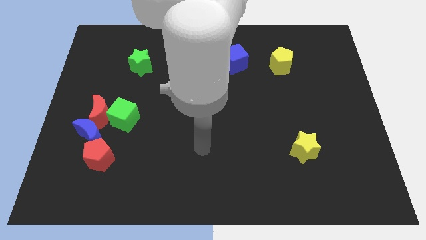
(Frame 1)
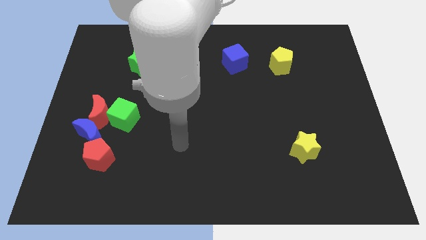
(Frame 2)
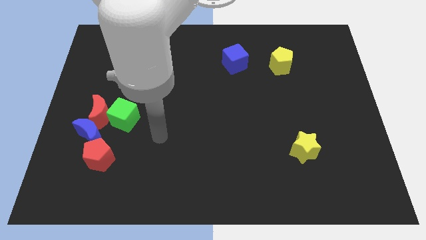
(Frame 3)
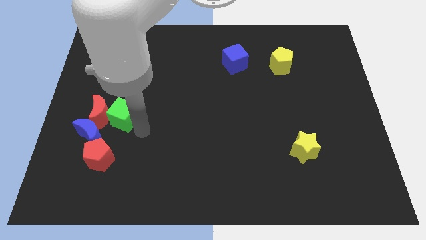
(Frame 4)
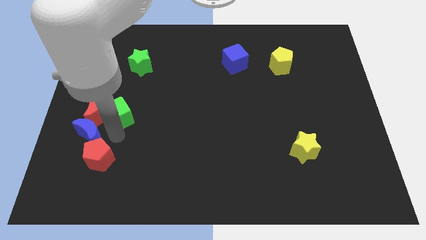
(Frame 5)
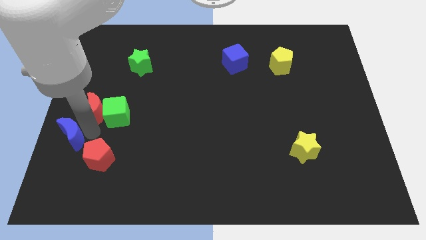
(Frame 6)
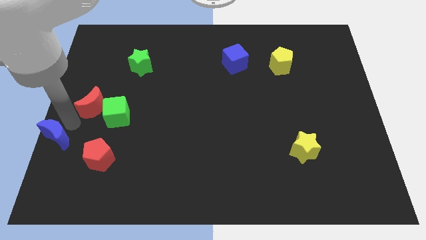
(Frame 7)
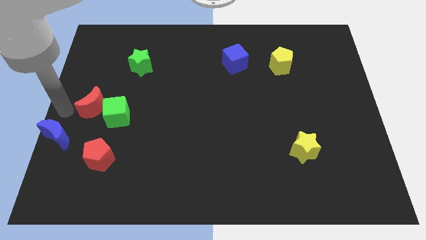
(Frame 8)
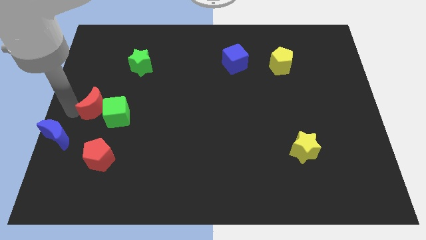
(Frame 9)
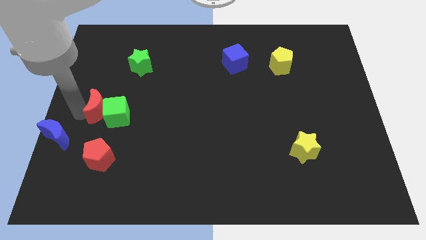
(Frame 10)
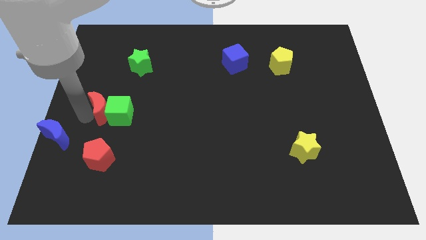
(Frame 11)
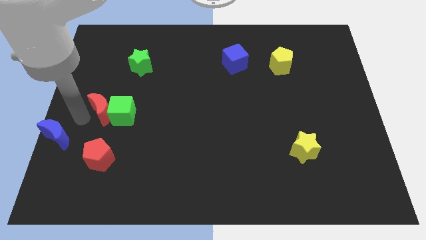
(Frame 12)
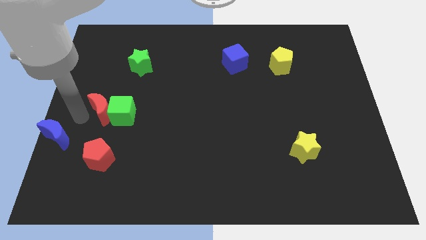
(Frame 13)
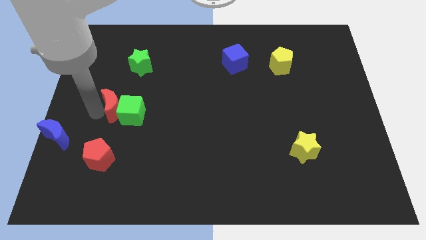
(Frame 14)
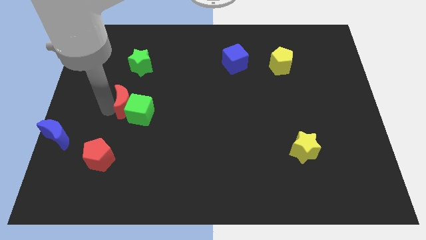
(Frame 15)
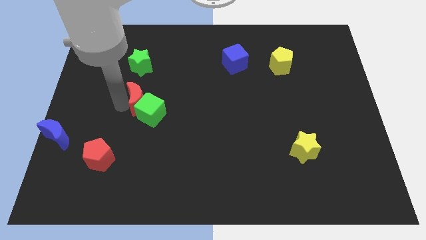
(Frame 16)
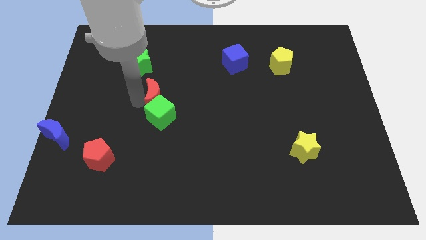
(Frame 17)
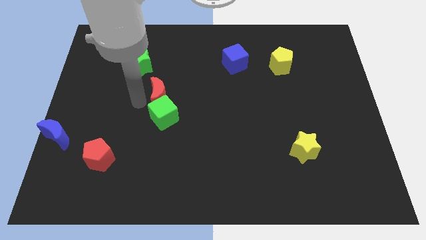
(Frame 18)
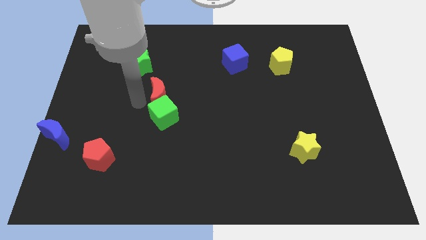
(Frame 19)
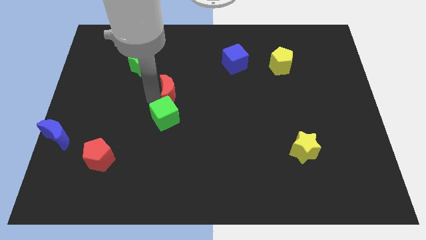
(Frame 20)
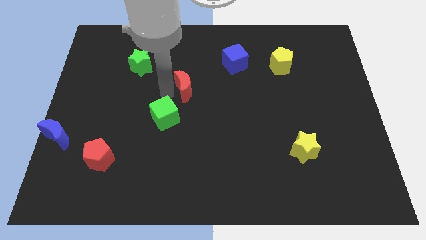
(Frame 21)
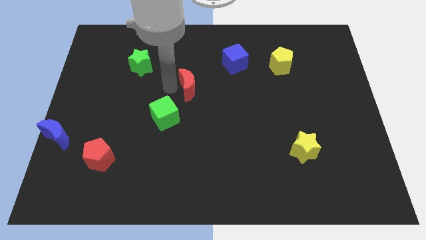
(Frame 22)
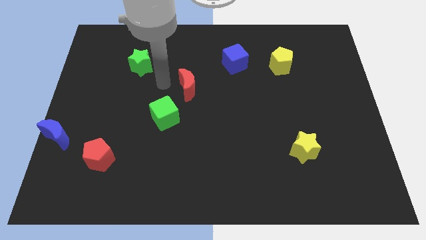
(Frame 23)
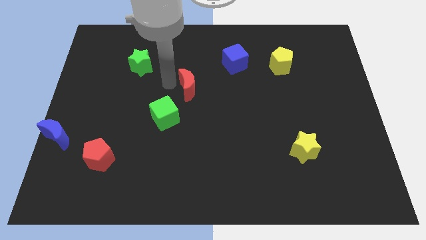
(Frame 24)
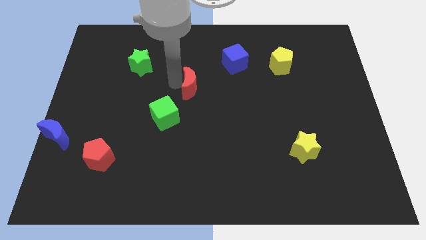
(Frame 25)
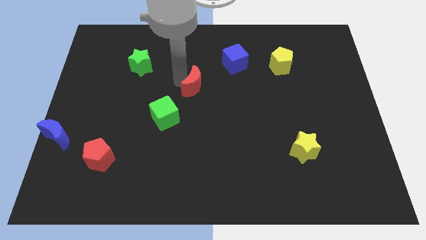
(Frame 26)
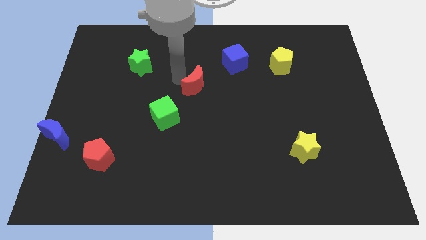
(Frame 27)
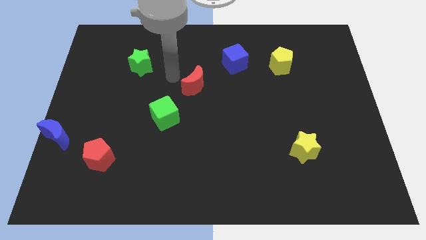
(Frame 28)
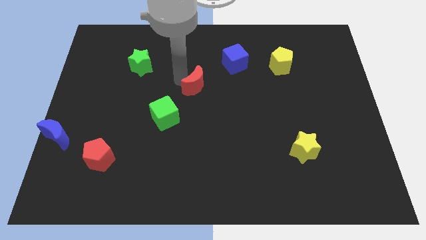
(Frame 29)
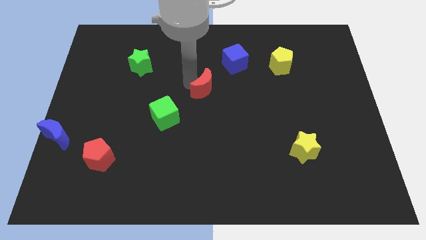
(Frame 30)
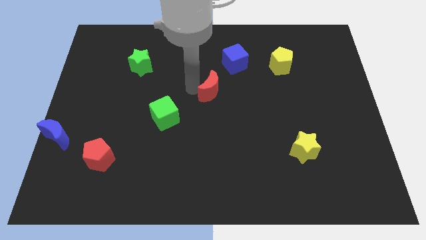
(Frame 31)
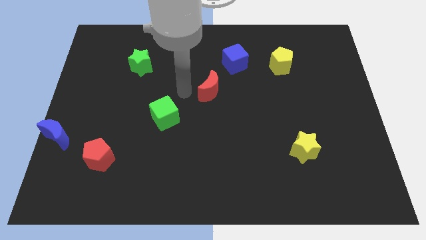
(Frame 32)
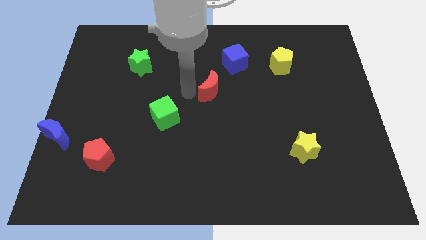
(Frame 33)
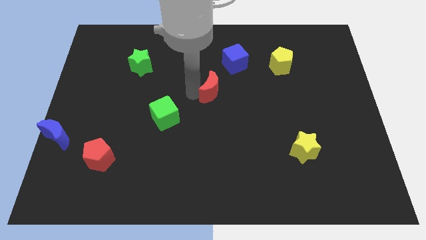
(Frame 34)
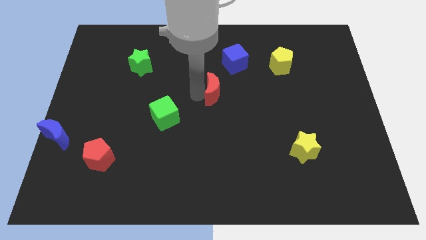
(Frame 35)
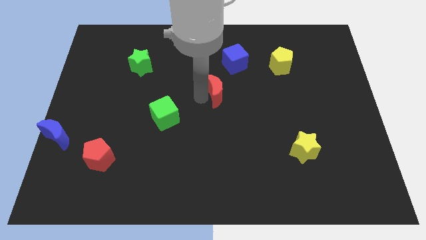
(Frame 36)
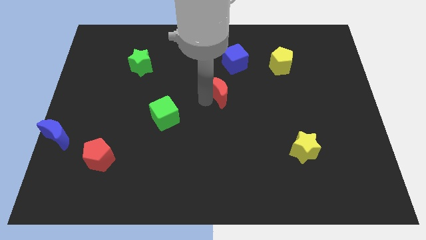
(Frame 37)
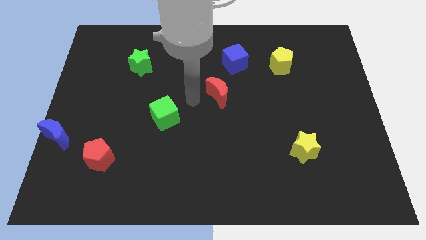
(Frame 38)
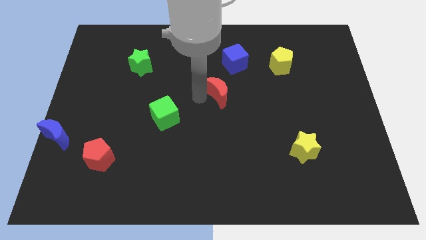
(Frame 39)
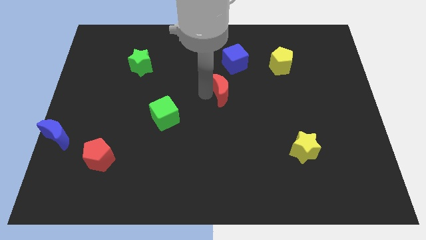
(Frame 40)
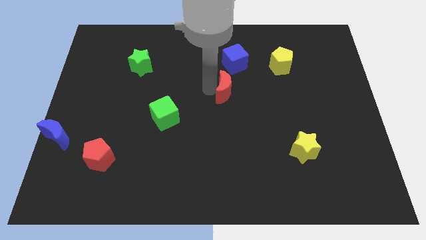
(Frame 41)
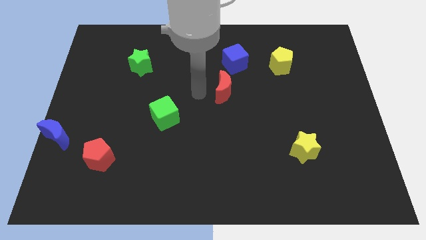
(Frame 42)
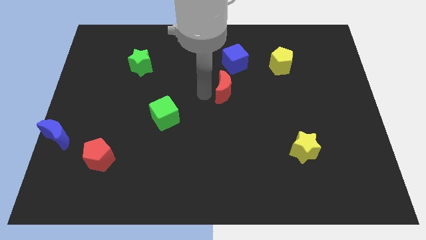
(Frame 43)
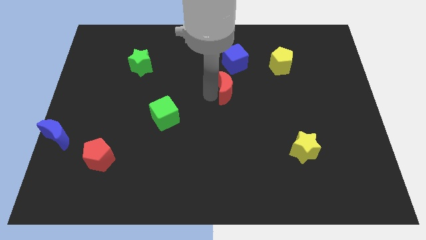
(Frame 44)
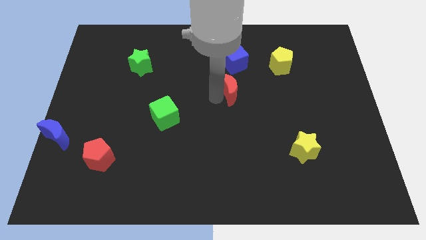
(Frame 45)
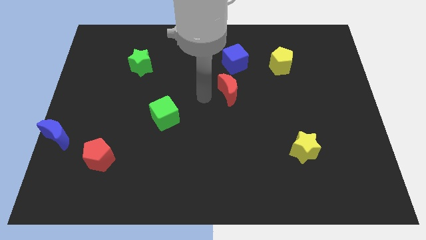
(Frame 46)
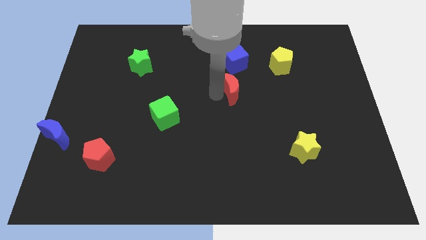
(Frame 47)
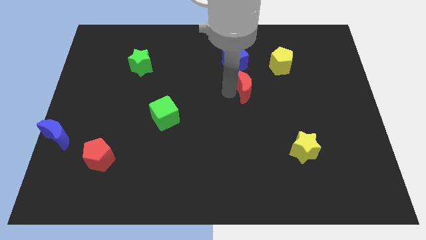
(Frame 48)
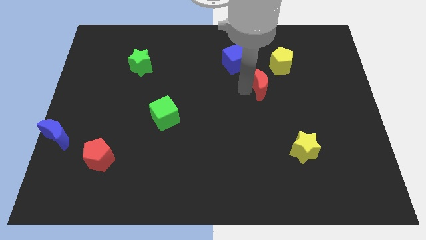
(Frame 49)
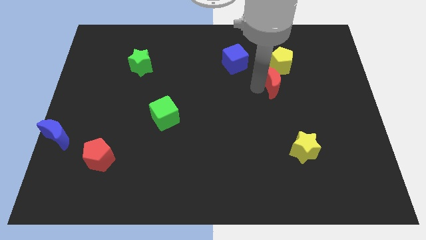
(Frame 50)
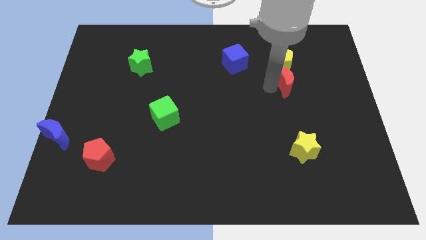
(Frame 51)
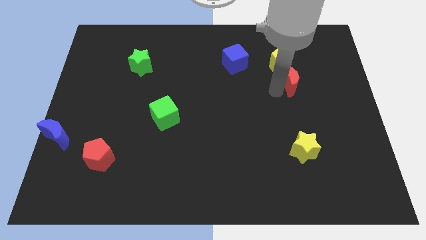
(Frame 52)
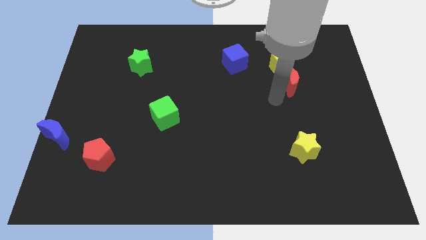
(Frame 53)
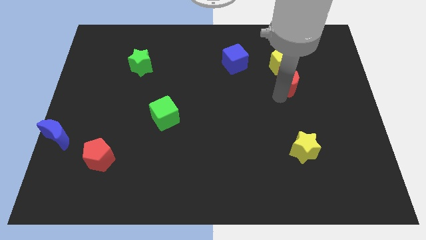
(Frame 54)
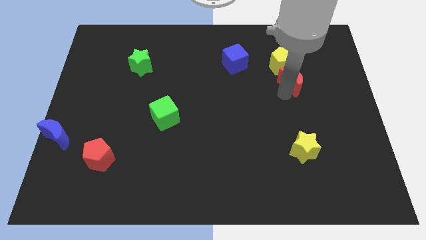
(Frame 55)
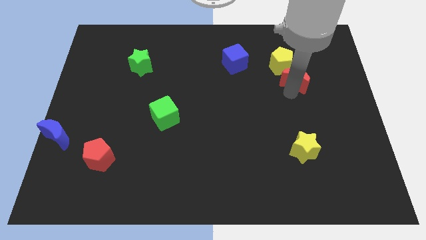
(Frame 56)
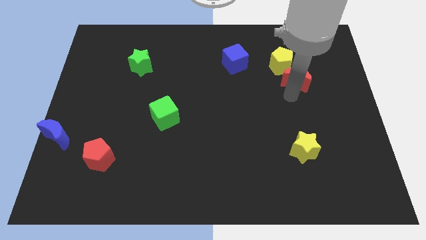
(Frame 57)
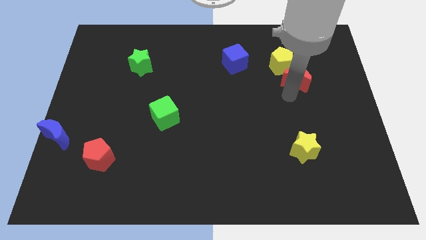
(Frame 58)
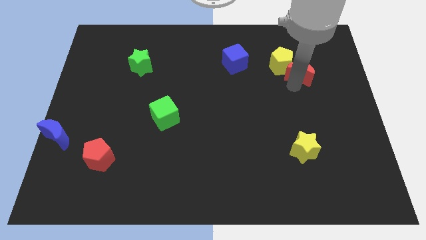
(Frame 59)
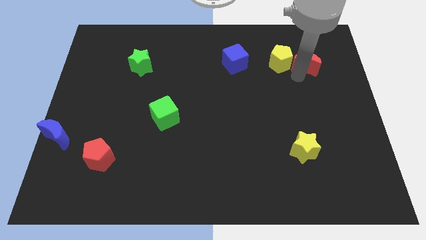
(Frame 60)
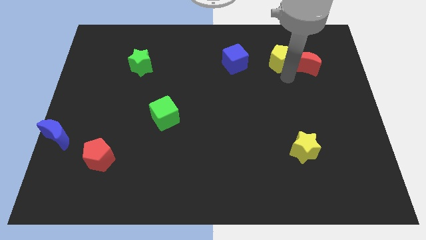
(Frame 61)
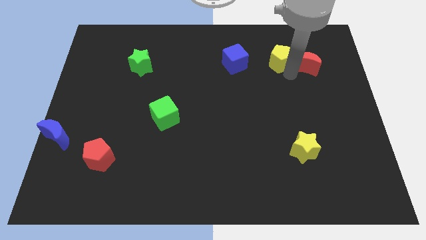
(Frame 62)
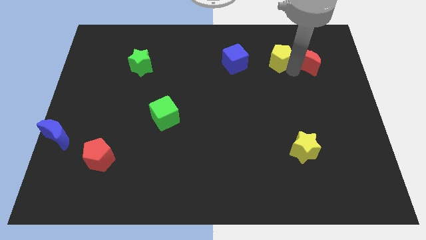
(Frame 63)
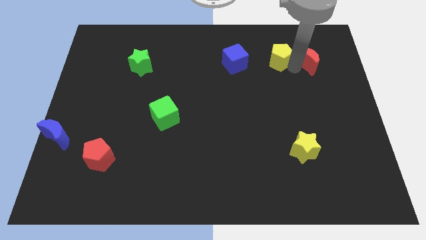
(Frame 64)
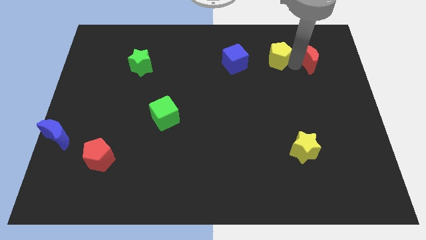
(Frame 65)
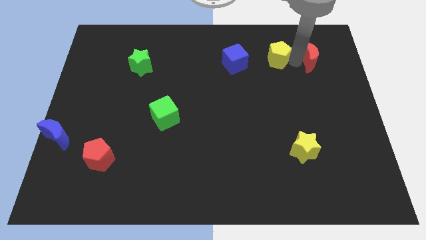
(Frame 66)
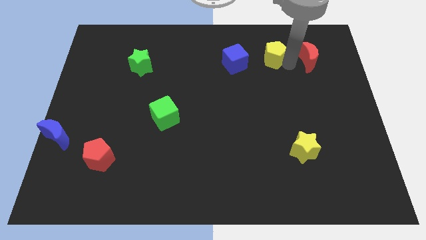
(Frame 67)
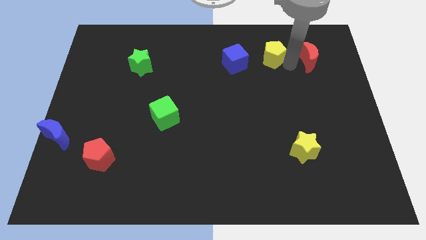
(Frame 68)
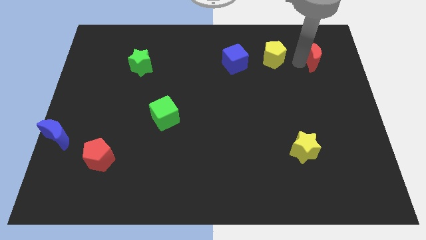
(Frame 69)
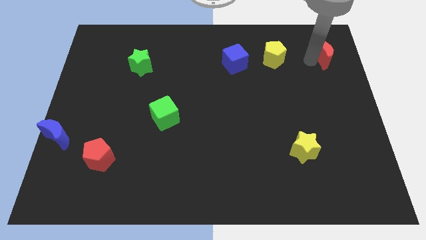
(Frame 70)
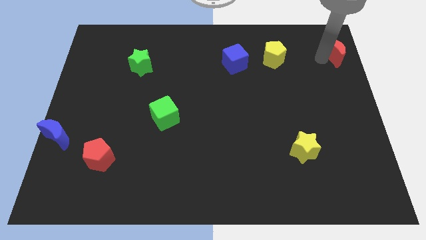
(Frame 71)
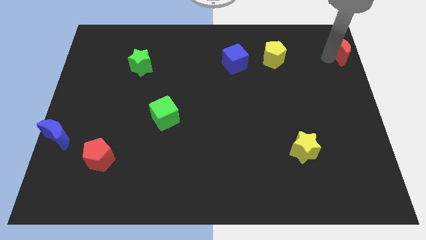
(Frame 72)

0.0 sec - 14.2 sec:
push the red moon to the top right corner
